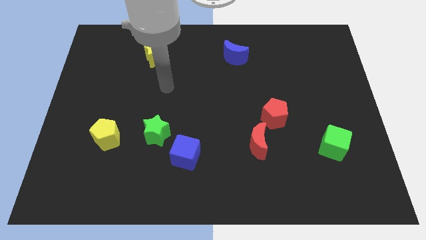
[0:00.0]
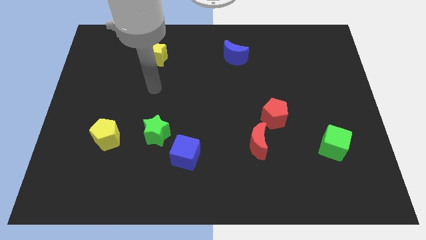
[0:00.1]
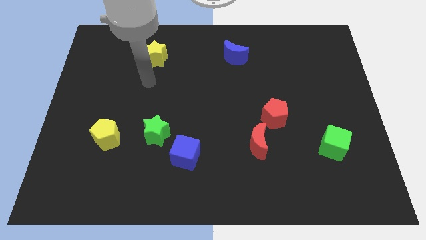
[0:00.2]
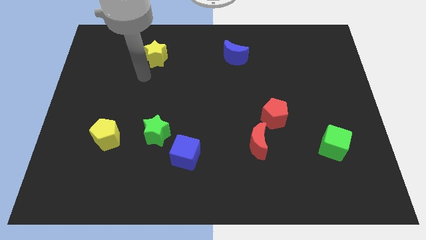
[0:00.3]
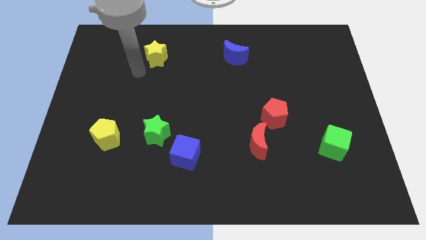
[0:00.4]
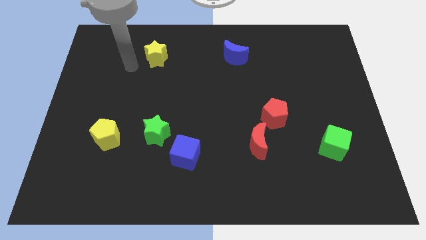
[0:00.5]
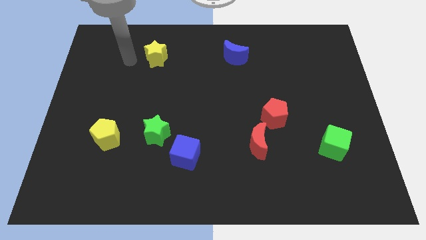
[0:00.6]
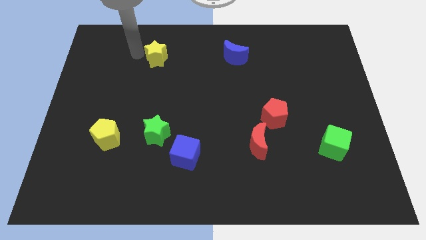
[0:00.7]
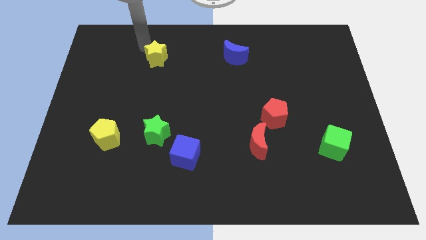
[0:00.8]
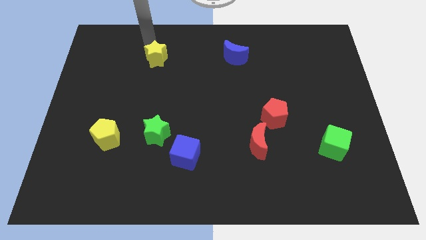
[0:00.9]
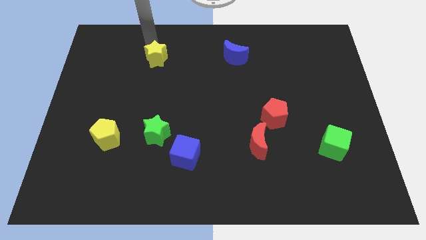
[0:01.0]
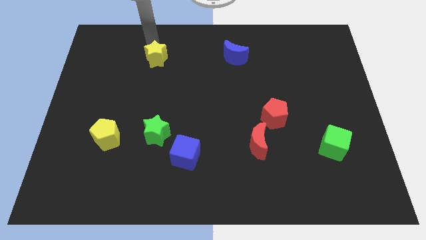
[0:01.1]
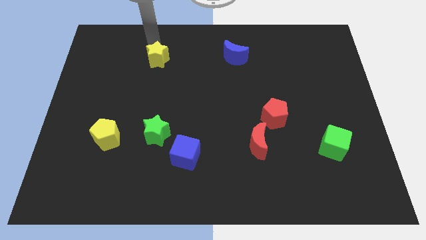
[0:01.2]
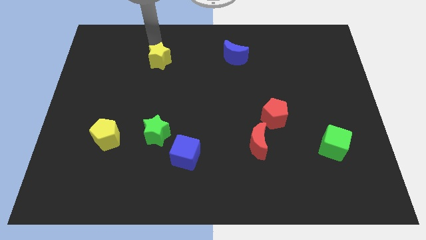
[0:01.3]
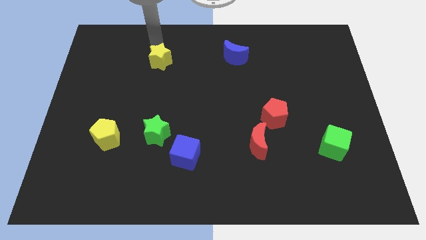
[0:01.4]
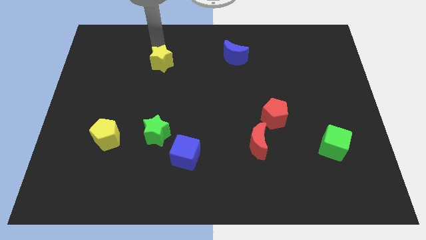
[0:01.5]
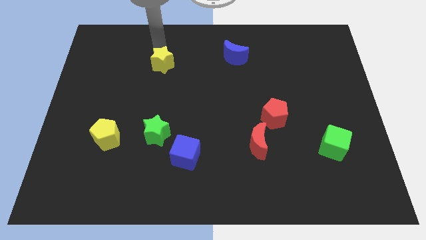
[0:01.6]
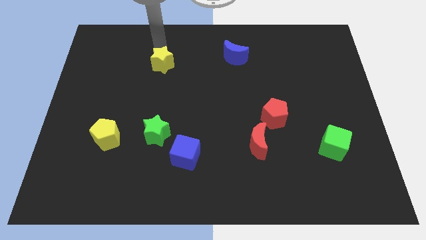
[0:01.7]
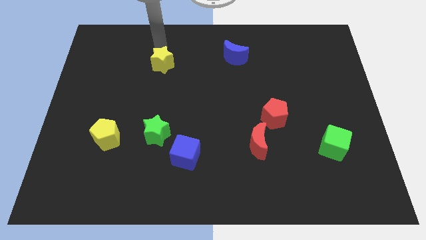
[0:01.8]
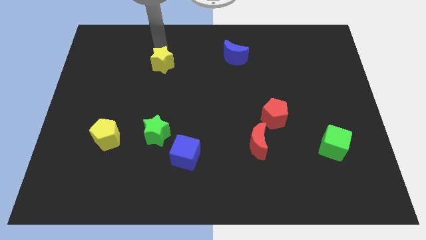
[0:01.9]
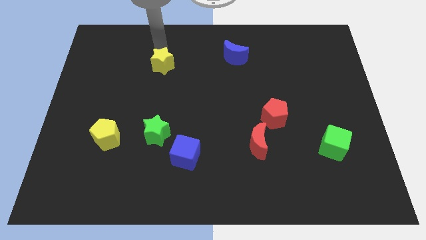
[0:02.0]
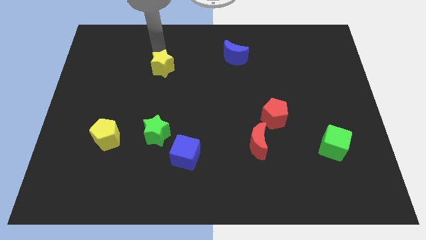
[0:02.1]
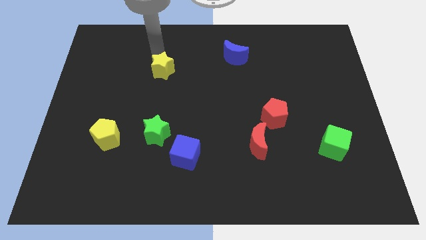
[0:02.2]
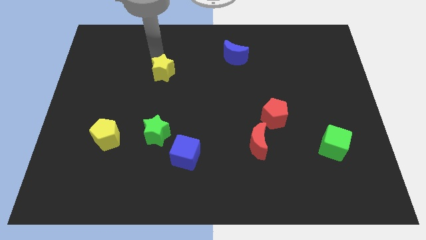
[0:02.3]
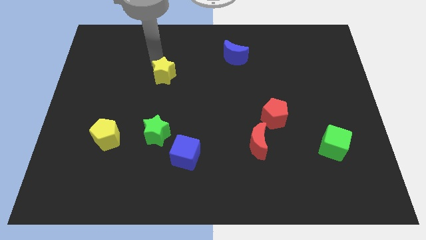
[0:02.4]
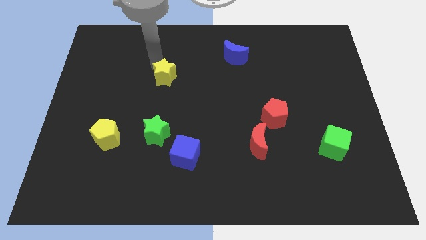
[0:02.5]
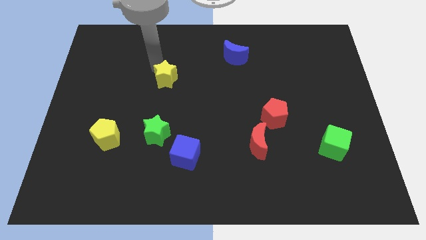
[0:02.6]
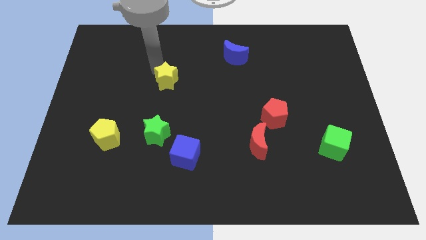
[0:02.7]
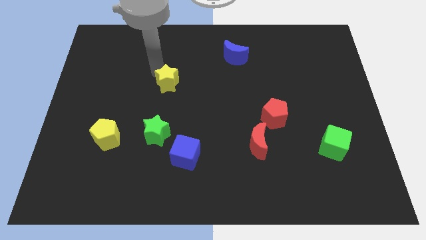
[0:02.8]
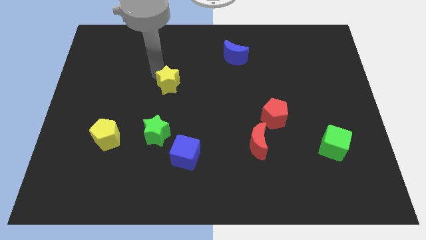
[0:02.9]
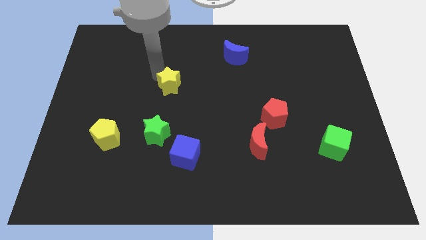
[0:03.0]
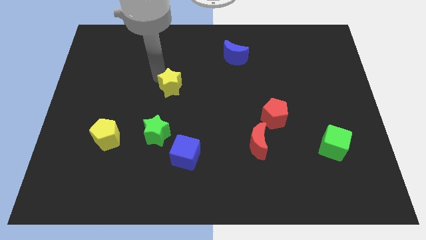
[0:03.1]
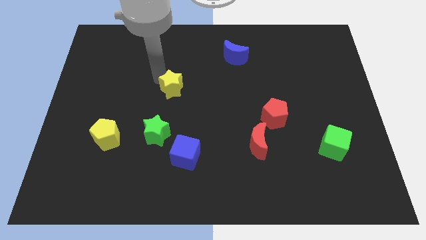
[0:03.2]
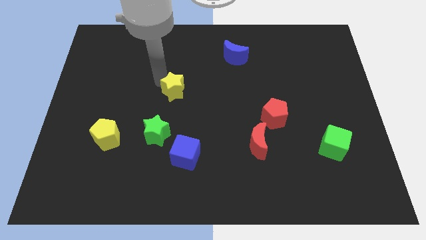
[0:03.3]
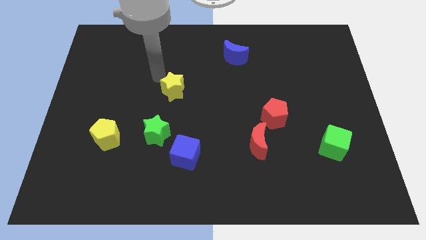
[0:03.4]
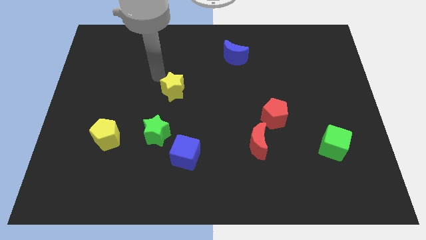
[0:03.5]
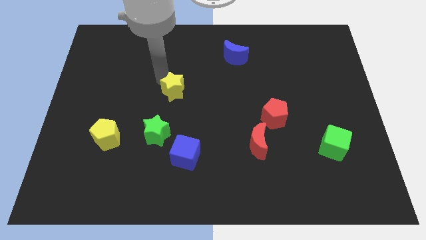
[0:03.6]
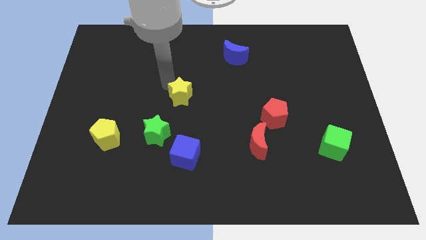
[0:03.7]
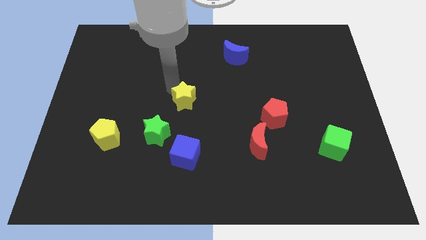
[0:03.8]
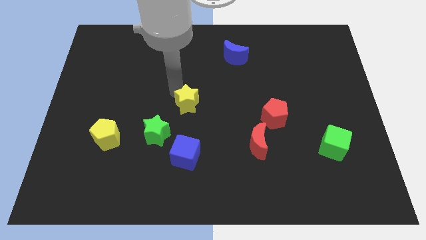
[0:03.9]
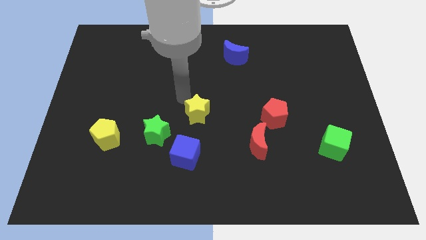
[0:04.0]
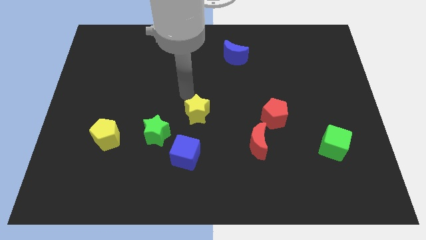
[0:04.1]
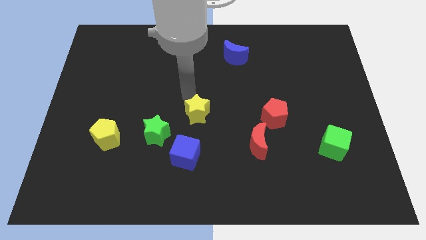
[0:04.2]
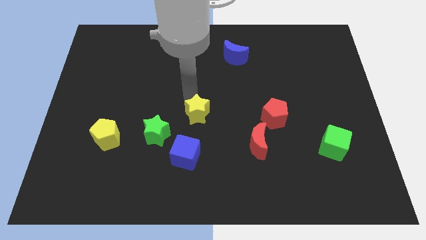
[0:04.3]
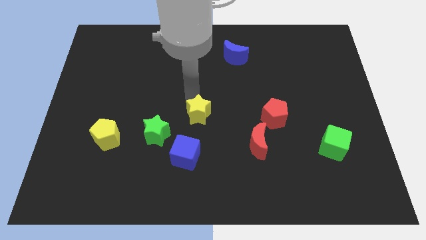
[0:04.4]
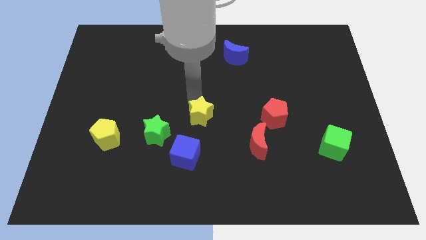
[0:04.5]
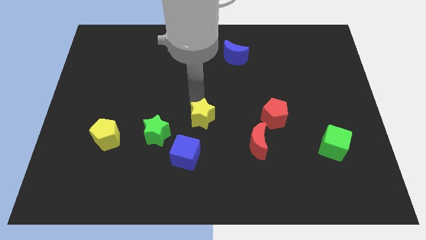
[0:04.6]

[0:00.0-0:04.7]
move the yellow star to the top right of the blue cube

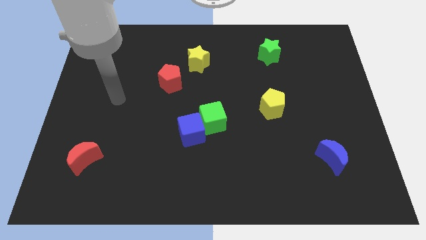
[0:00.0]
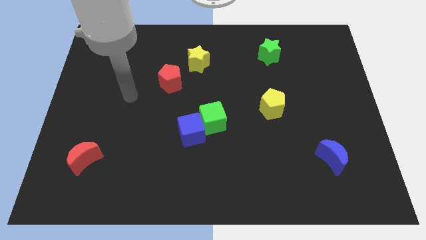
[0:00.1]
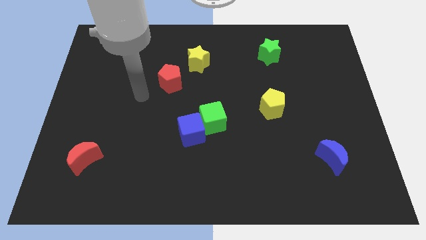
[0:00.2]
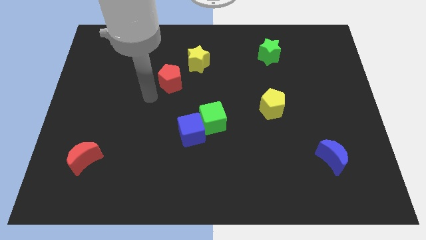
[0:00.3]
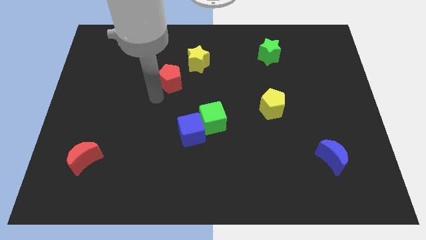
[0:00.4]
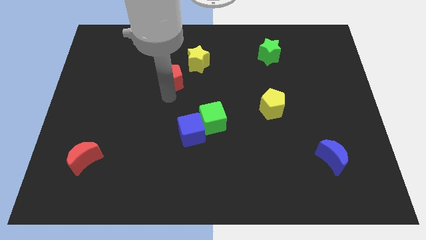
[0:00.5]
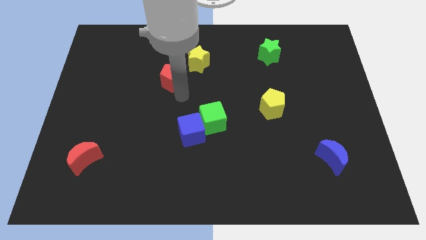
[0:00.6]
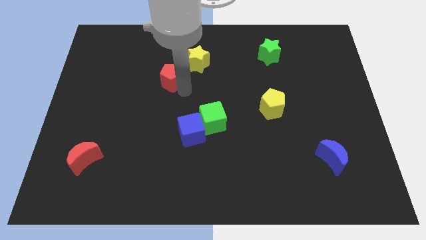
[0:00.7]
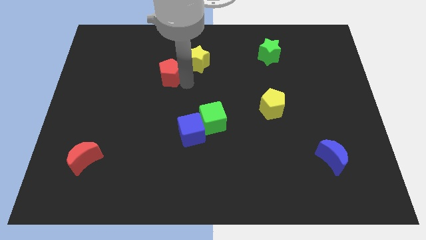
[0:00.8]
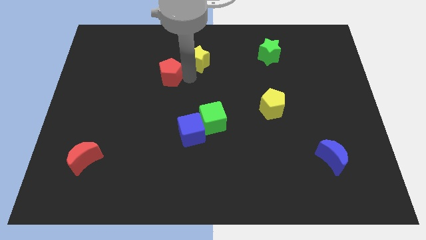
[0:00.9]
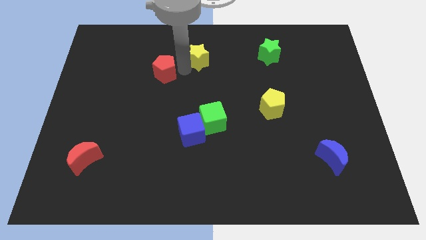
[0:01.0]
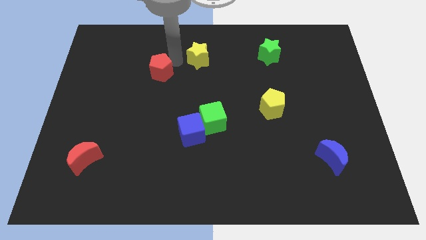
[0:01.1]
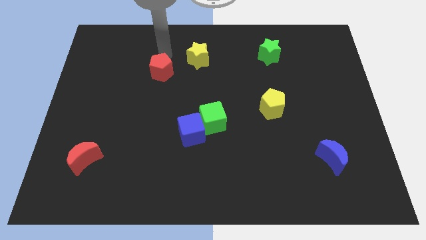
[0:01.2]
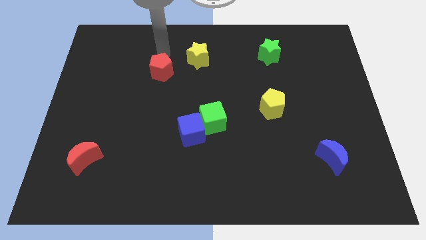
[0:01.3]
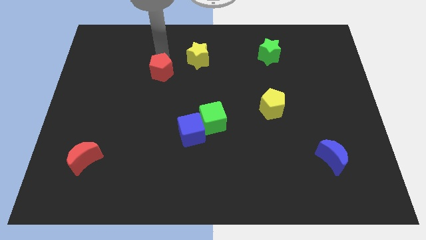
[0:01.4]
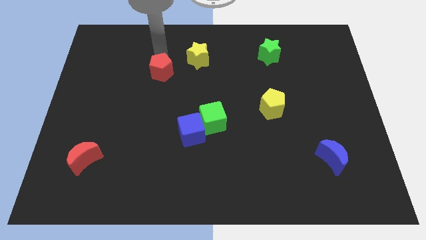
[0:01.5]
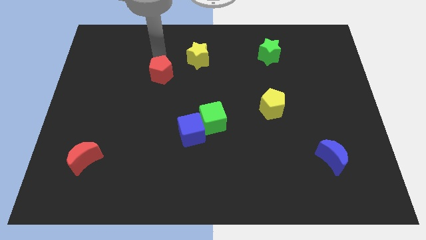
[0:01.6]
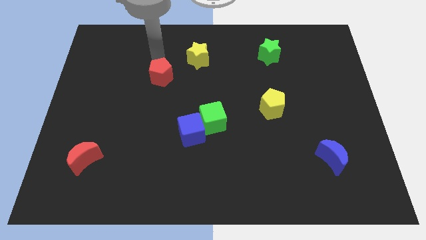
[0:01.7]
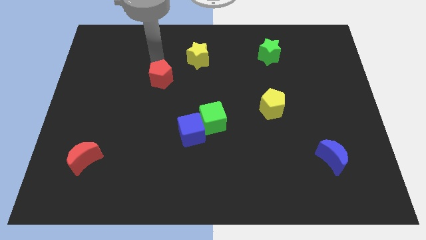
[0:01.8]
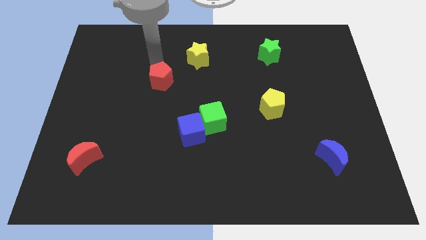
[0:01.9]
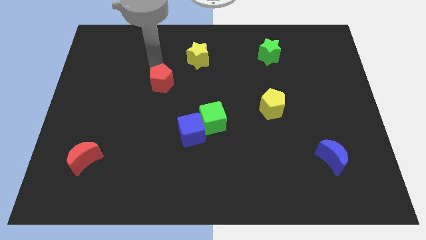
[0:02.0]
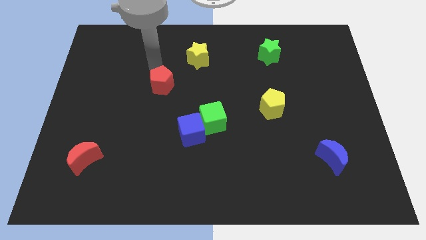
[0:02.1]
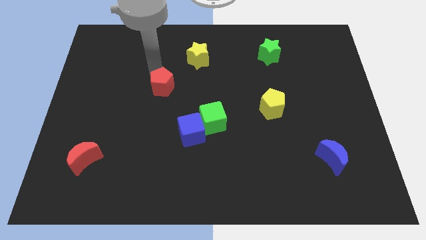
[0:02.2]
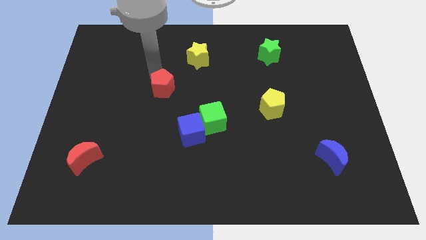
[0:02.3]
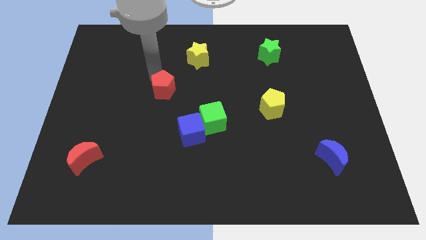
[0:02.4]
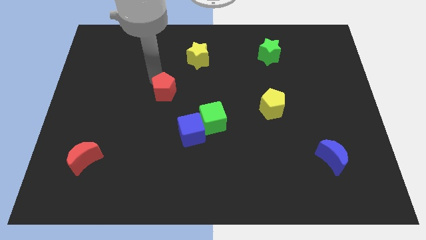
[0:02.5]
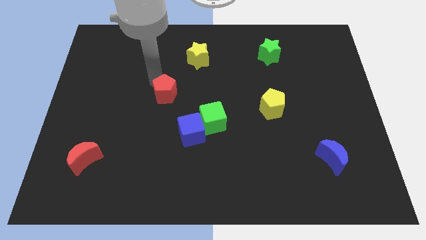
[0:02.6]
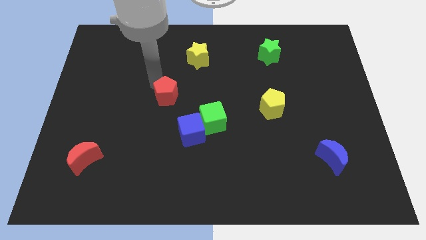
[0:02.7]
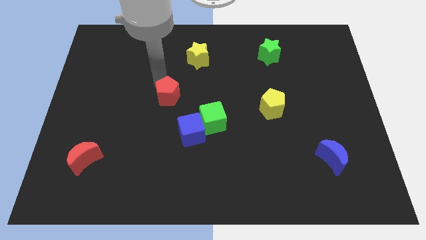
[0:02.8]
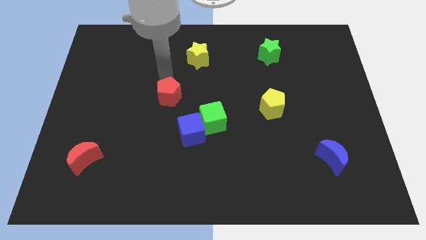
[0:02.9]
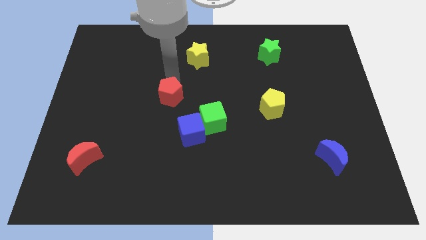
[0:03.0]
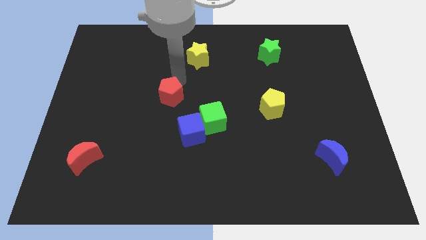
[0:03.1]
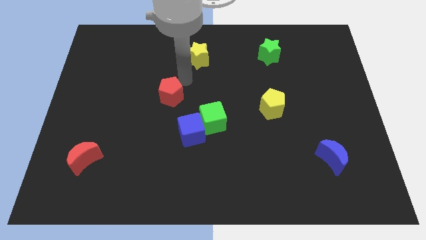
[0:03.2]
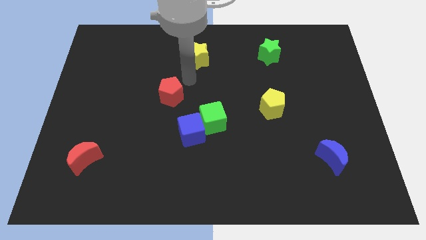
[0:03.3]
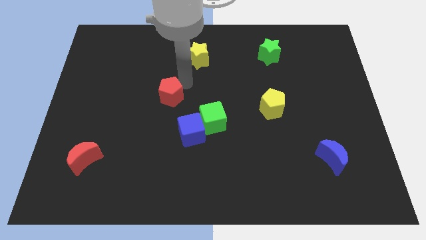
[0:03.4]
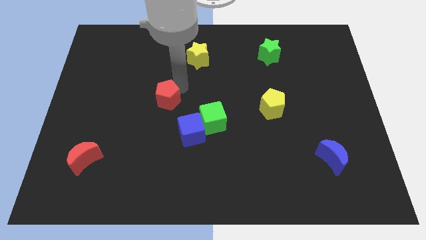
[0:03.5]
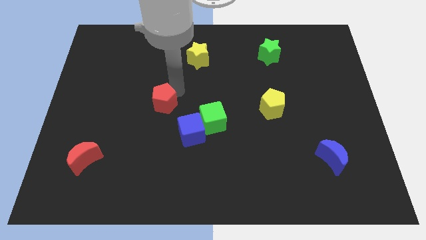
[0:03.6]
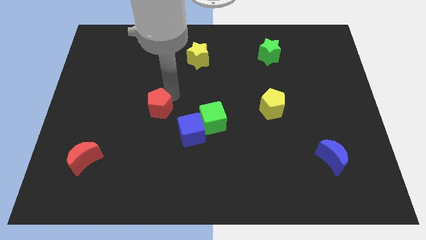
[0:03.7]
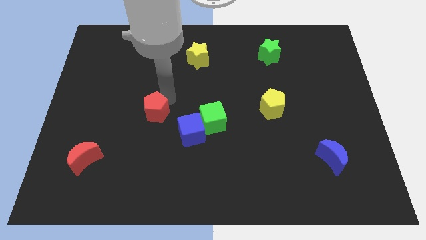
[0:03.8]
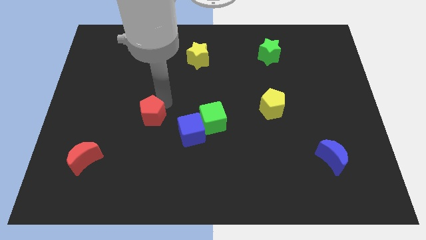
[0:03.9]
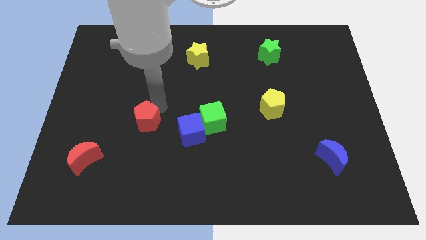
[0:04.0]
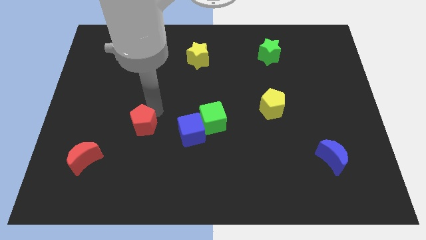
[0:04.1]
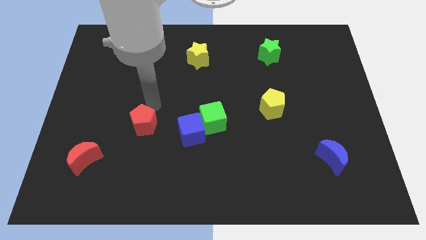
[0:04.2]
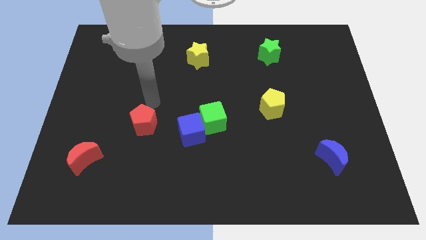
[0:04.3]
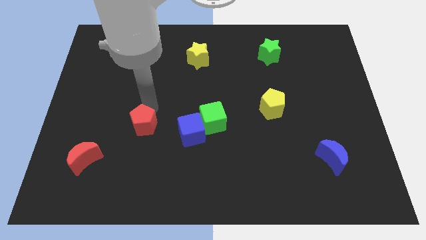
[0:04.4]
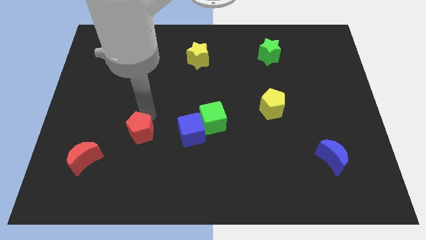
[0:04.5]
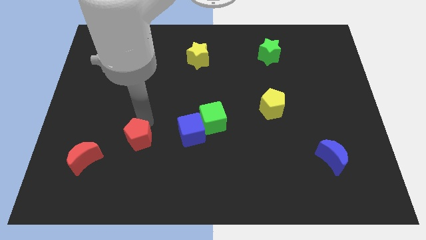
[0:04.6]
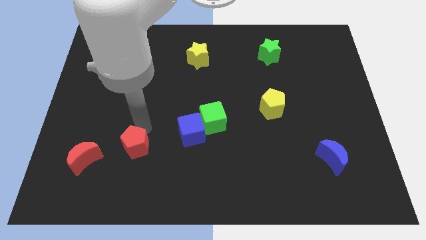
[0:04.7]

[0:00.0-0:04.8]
push the red pentagon just right of the red moon
